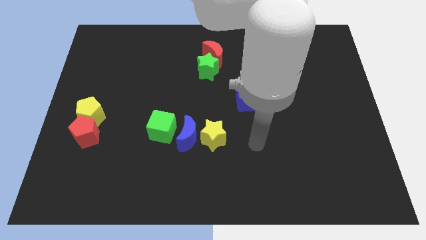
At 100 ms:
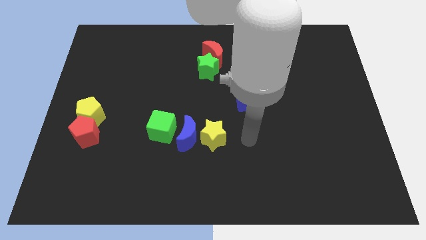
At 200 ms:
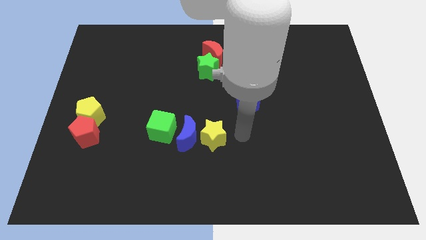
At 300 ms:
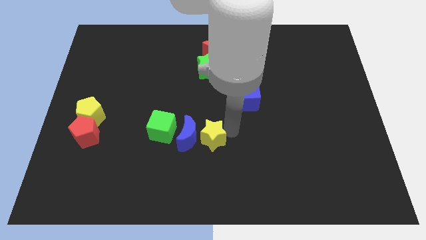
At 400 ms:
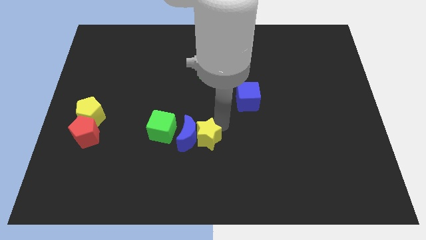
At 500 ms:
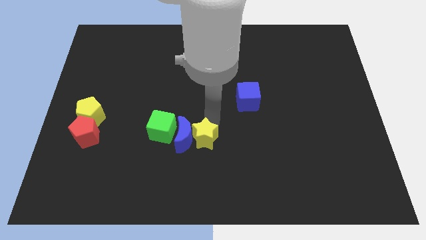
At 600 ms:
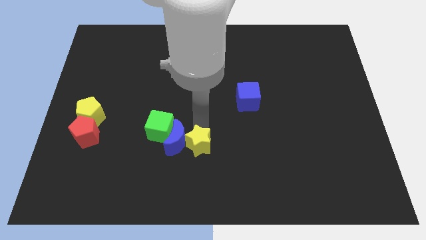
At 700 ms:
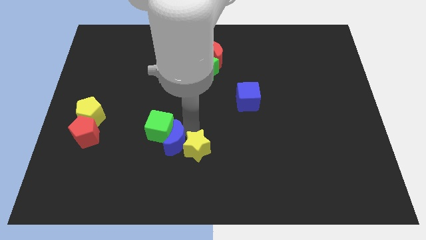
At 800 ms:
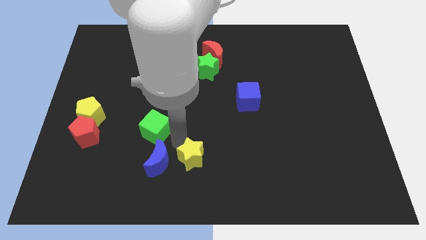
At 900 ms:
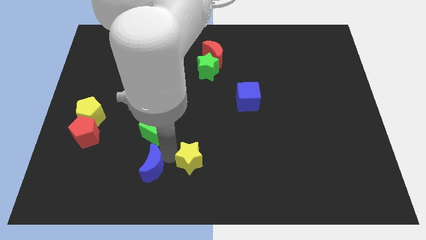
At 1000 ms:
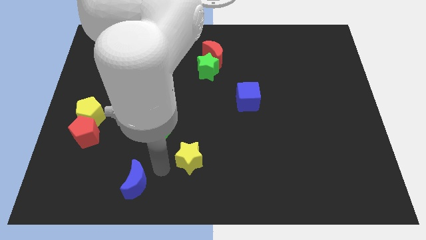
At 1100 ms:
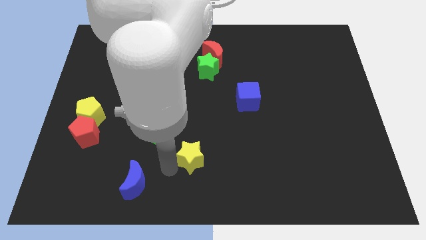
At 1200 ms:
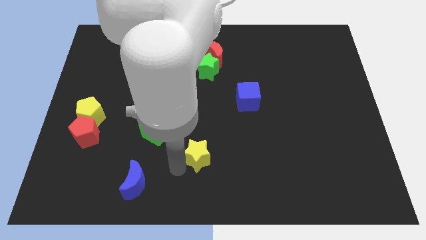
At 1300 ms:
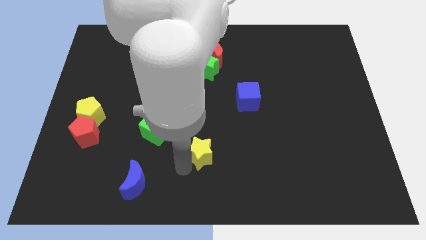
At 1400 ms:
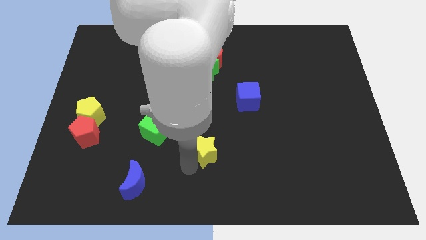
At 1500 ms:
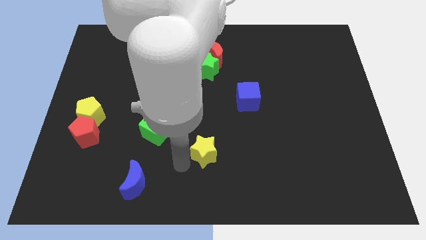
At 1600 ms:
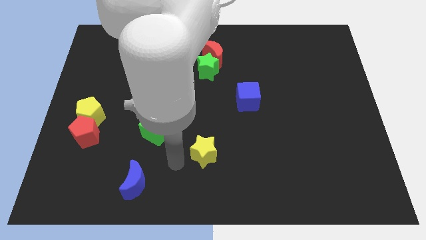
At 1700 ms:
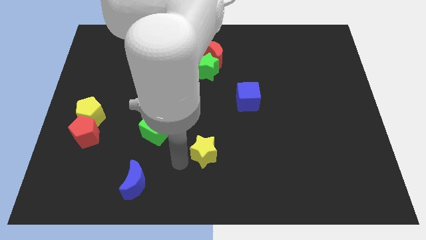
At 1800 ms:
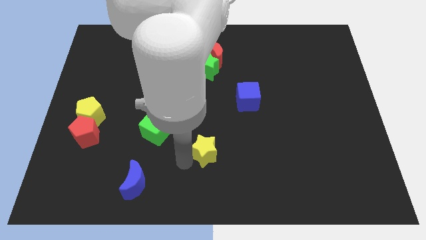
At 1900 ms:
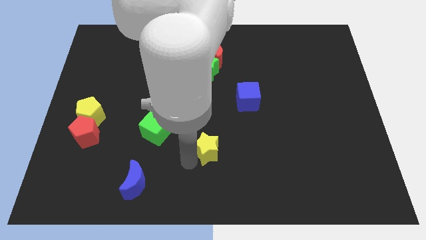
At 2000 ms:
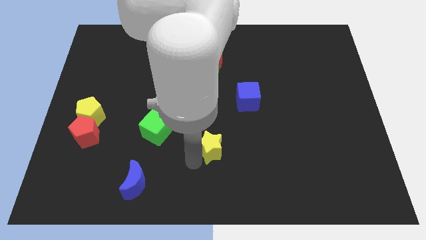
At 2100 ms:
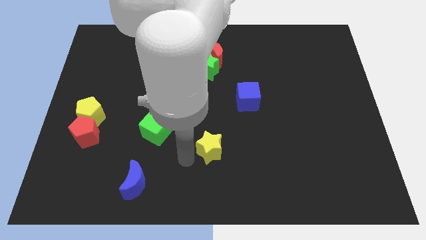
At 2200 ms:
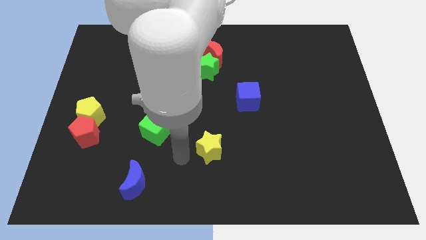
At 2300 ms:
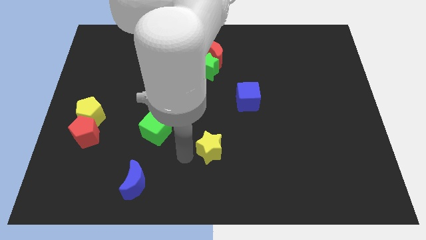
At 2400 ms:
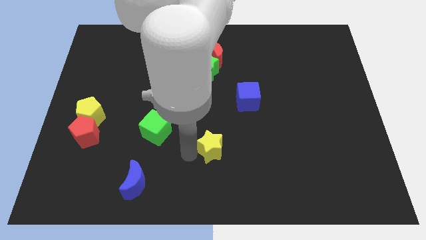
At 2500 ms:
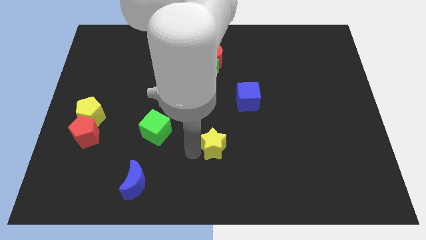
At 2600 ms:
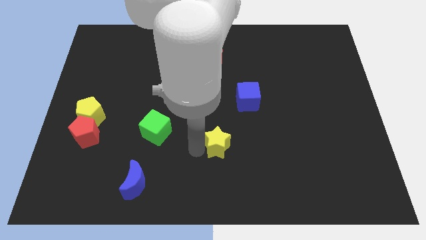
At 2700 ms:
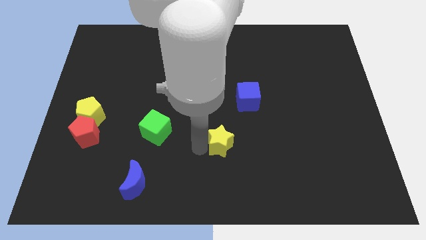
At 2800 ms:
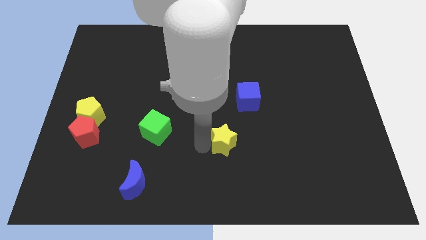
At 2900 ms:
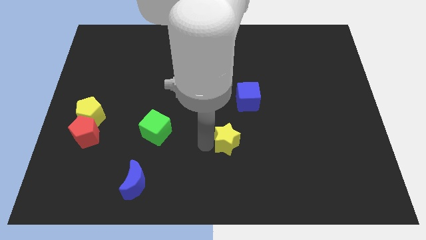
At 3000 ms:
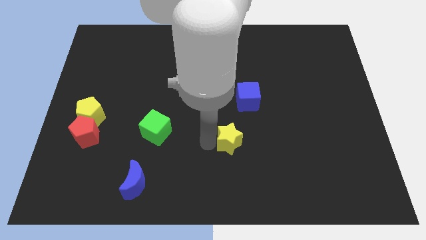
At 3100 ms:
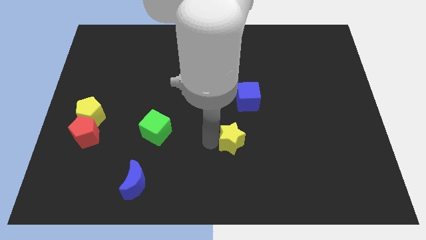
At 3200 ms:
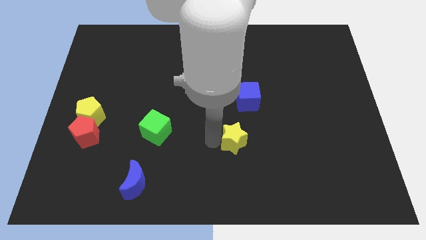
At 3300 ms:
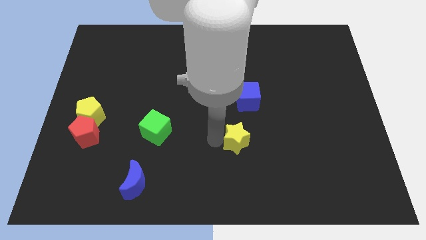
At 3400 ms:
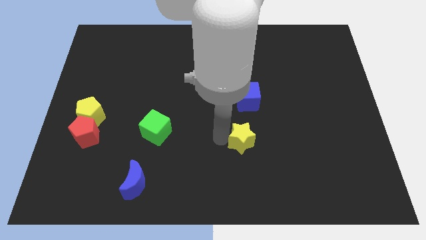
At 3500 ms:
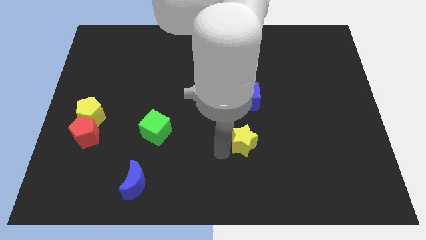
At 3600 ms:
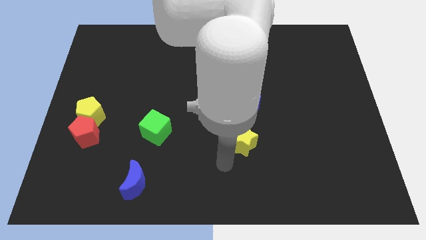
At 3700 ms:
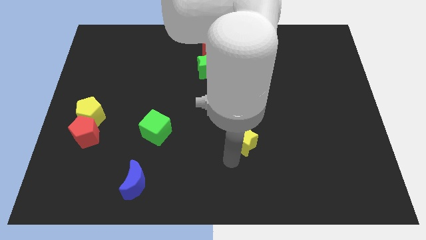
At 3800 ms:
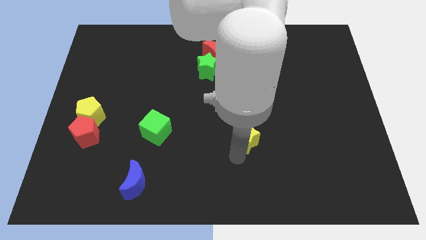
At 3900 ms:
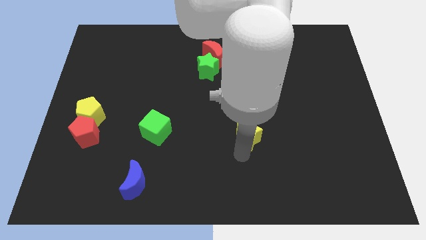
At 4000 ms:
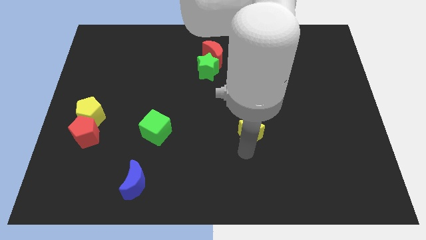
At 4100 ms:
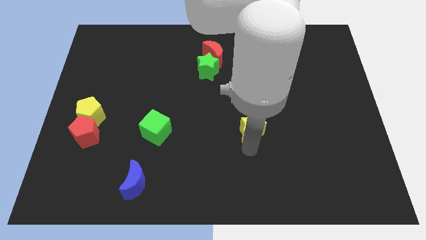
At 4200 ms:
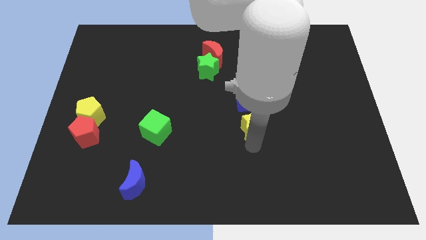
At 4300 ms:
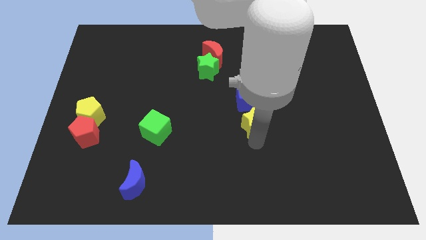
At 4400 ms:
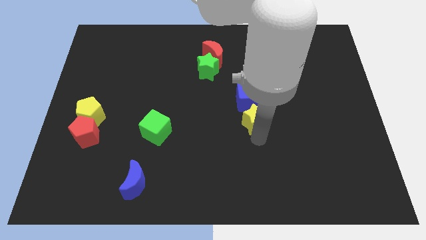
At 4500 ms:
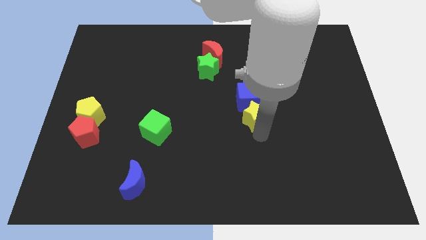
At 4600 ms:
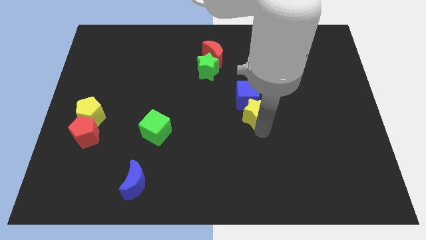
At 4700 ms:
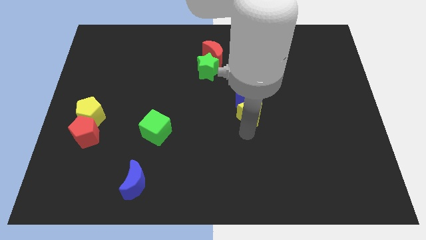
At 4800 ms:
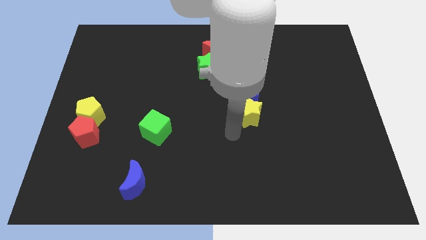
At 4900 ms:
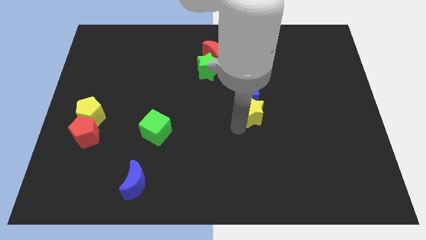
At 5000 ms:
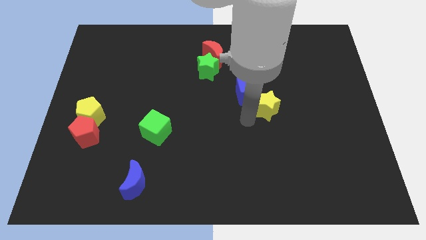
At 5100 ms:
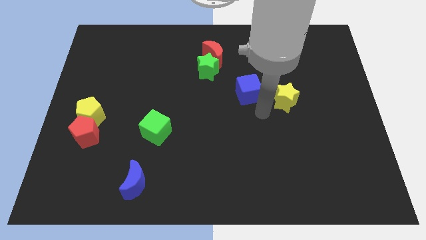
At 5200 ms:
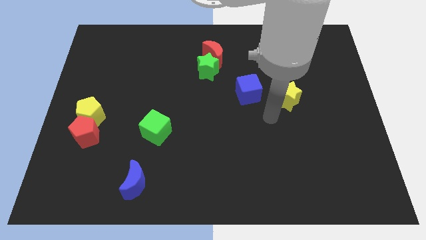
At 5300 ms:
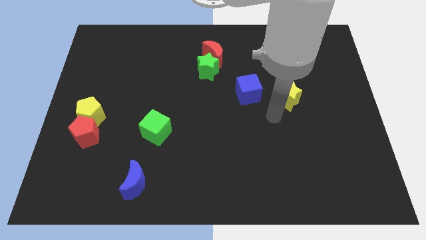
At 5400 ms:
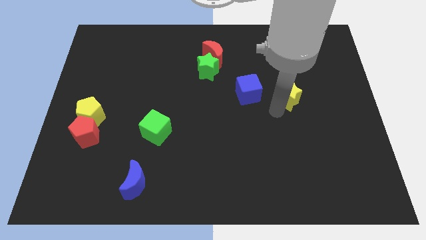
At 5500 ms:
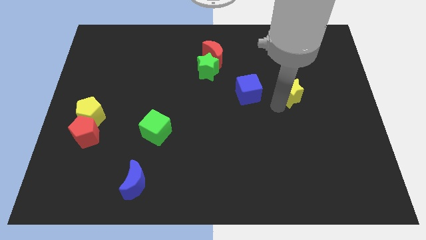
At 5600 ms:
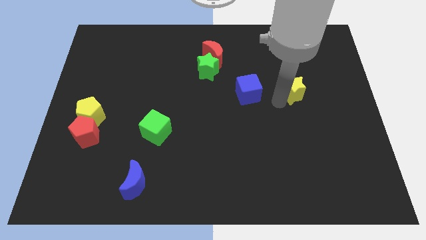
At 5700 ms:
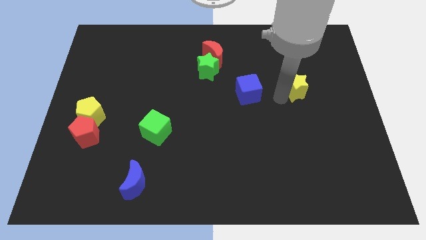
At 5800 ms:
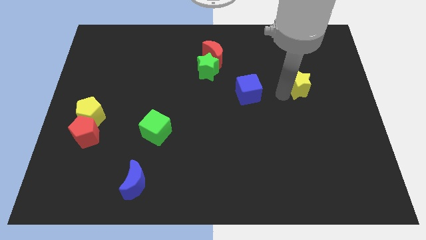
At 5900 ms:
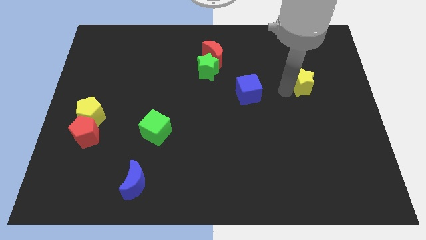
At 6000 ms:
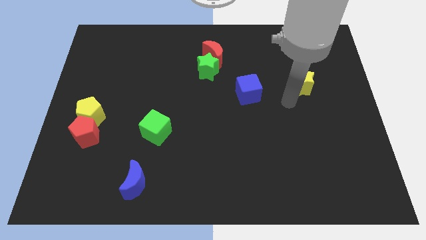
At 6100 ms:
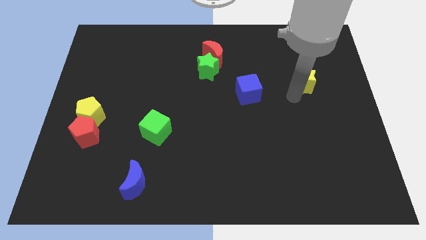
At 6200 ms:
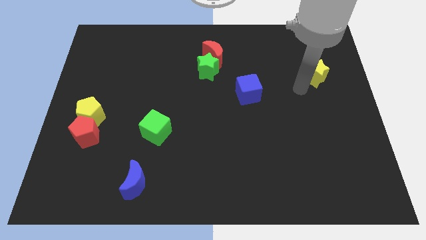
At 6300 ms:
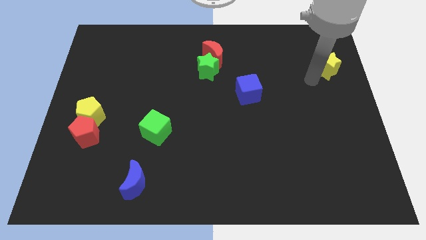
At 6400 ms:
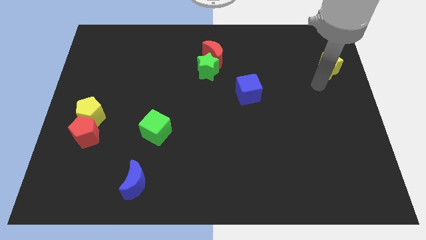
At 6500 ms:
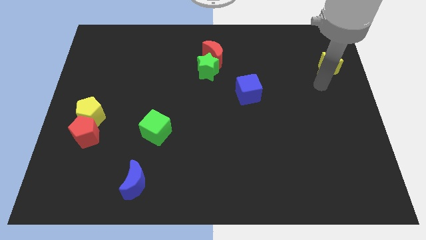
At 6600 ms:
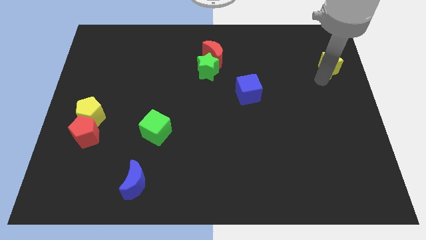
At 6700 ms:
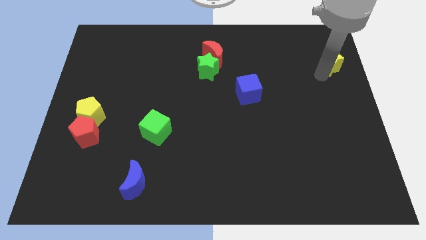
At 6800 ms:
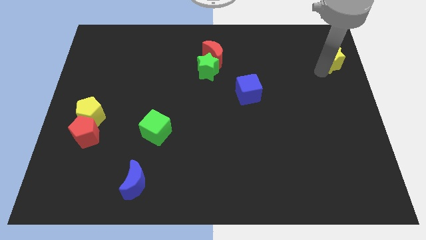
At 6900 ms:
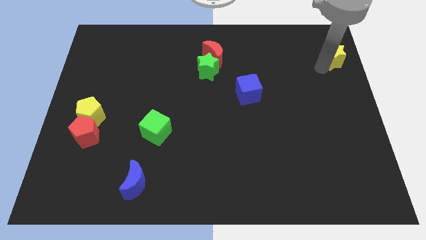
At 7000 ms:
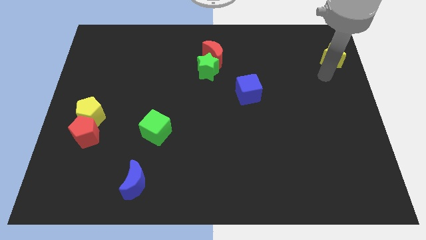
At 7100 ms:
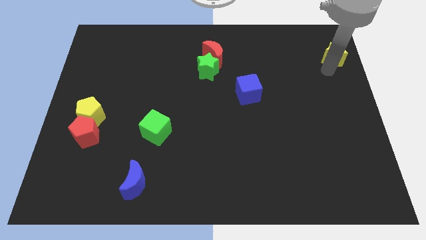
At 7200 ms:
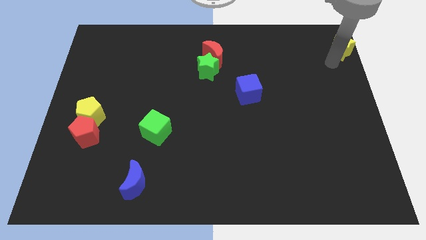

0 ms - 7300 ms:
push the yellow star to the top right of the board
